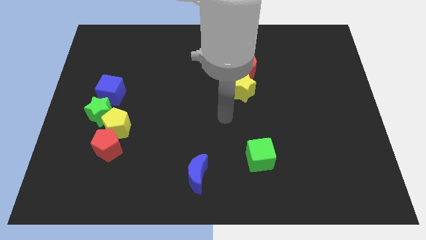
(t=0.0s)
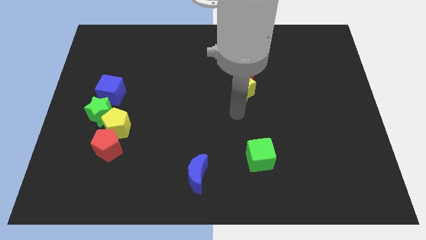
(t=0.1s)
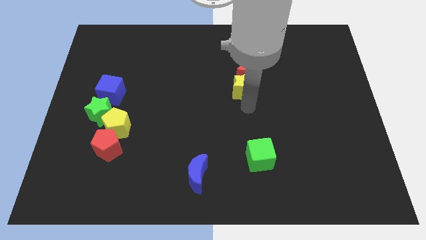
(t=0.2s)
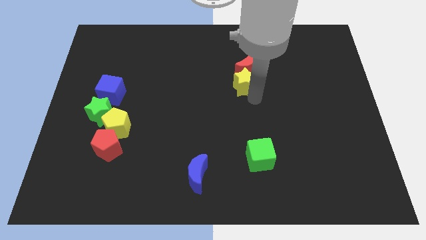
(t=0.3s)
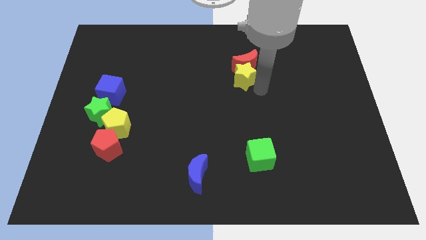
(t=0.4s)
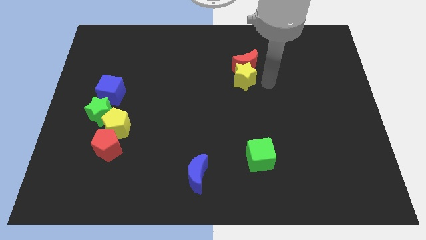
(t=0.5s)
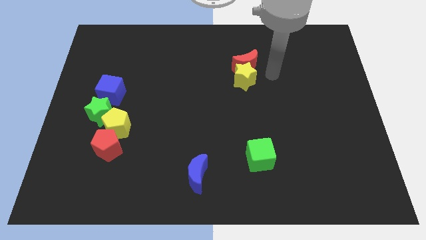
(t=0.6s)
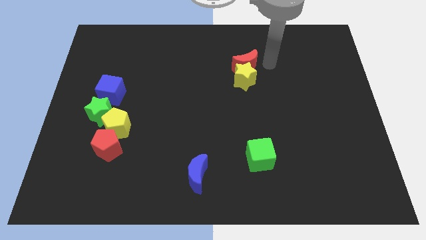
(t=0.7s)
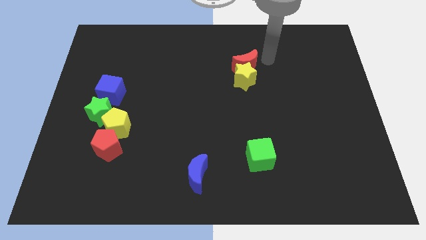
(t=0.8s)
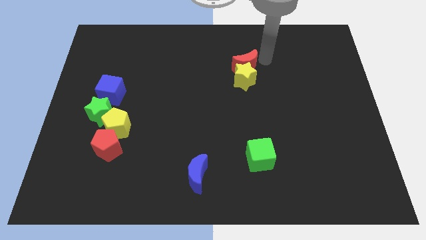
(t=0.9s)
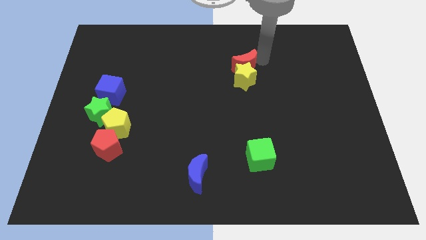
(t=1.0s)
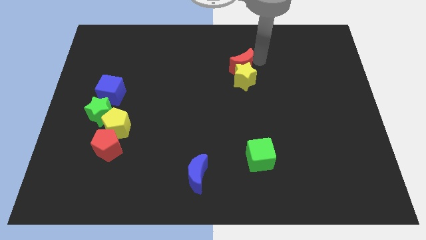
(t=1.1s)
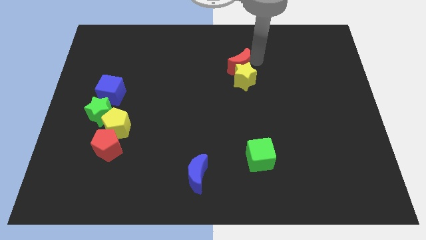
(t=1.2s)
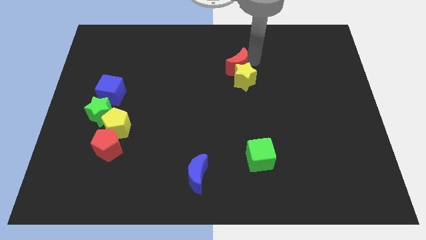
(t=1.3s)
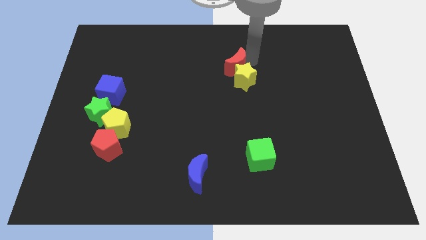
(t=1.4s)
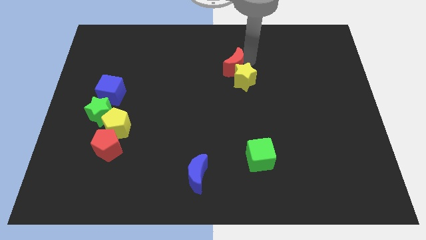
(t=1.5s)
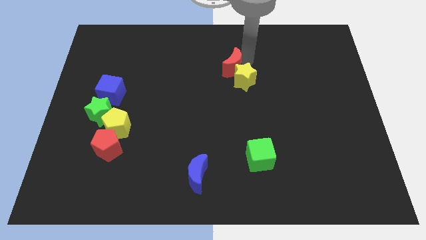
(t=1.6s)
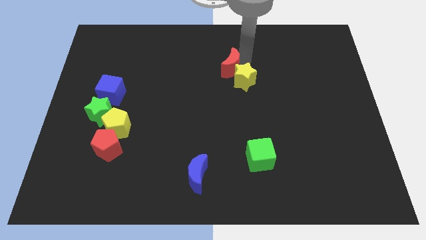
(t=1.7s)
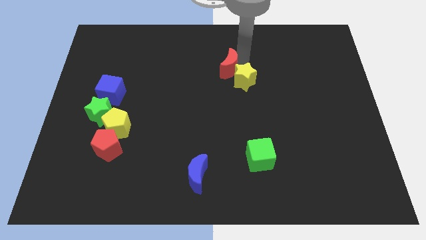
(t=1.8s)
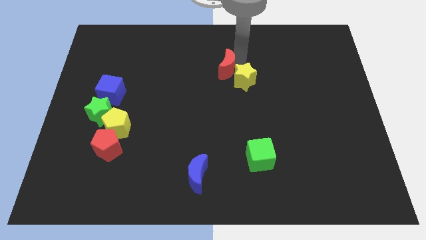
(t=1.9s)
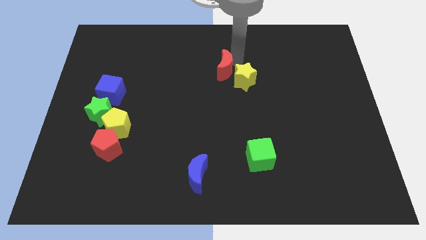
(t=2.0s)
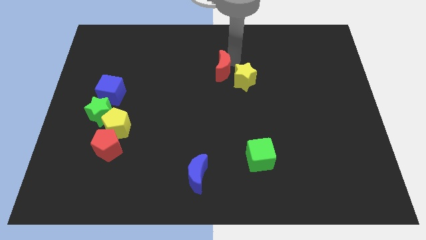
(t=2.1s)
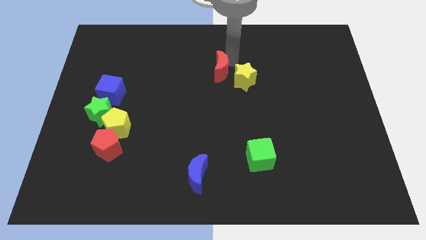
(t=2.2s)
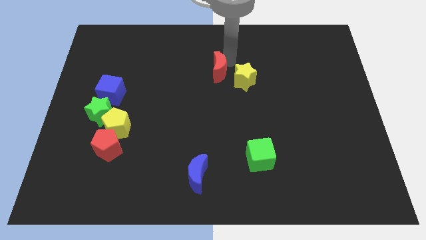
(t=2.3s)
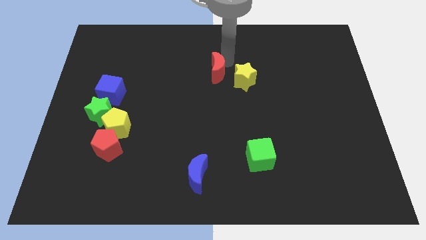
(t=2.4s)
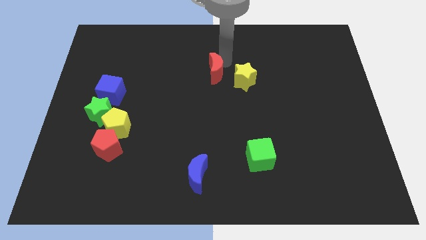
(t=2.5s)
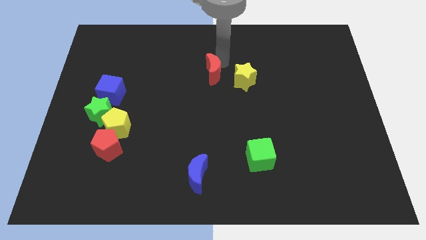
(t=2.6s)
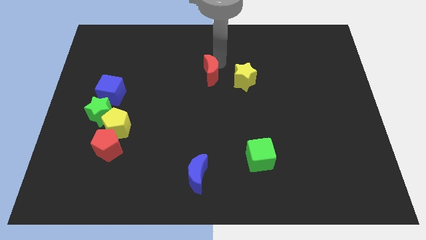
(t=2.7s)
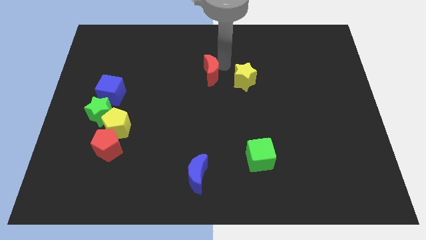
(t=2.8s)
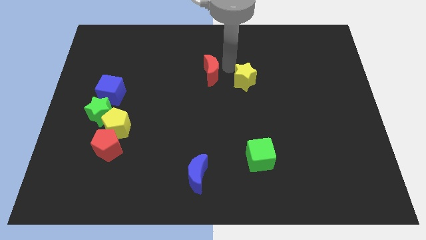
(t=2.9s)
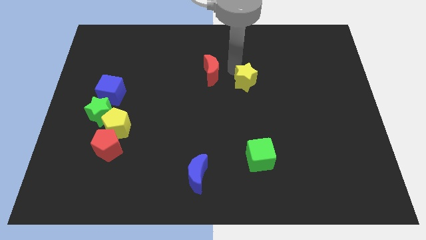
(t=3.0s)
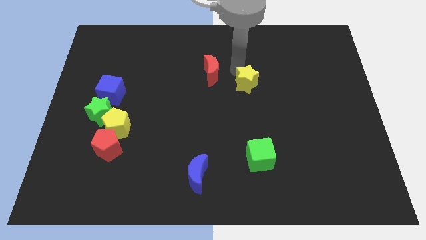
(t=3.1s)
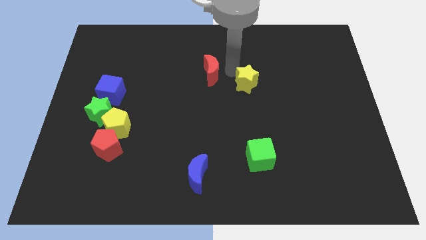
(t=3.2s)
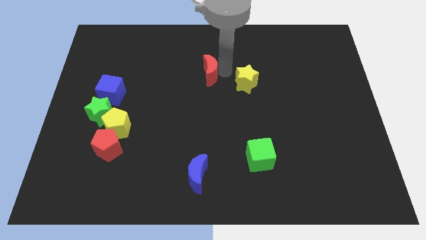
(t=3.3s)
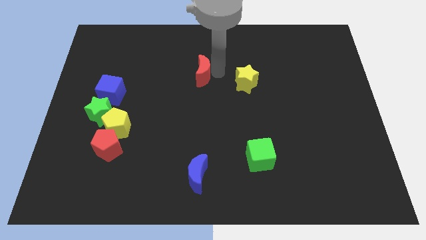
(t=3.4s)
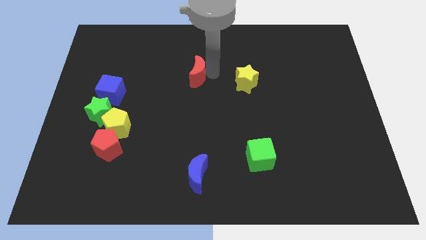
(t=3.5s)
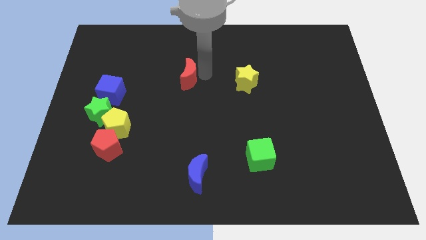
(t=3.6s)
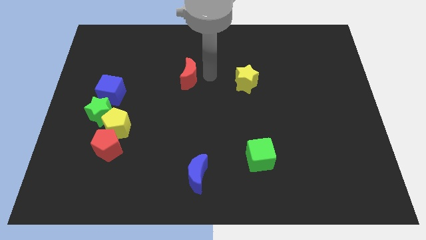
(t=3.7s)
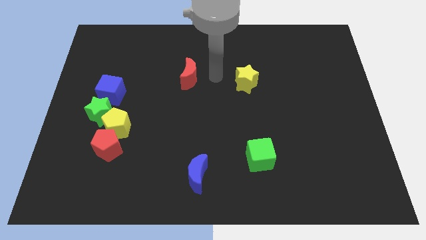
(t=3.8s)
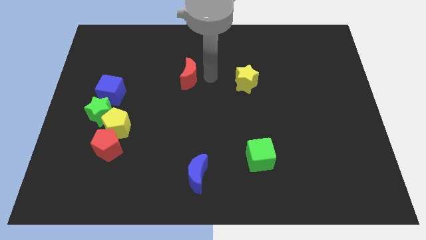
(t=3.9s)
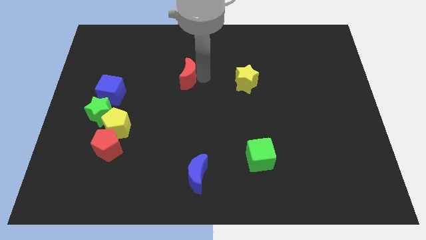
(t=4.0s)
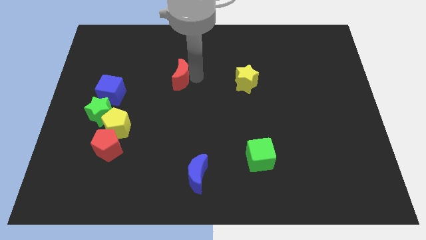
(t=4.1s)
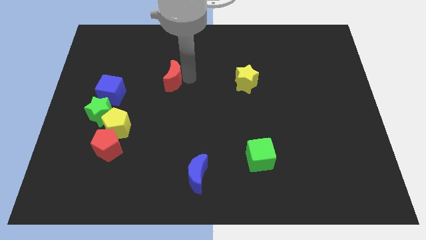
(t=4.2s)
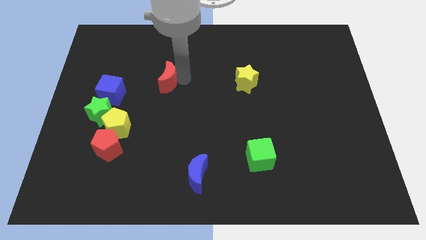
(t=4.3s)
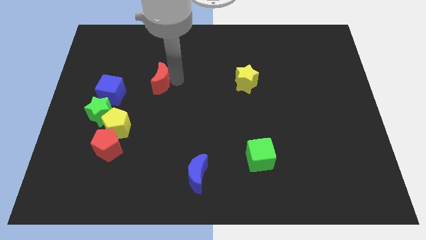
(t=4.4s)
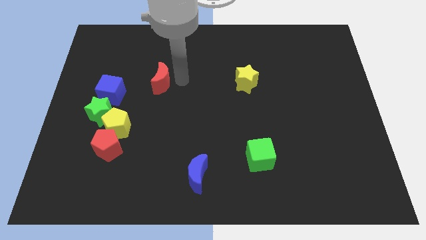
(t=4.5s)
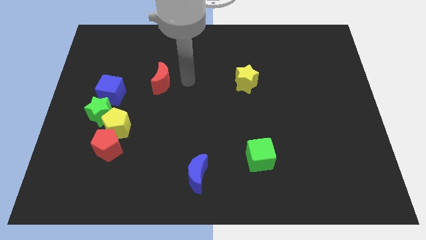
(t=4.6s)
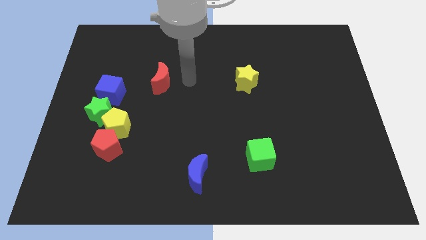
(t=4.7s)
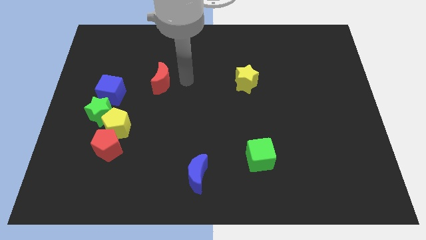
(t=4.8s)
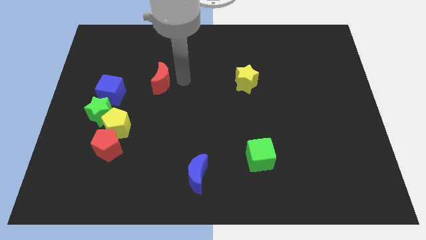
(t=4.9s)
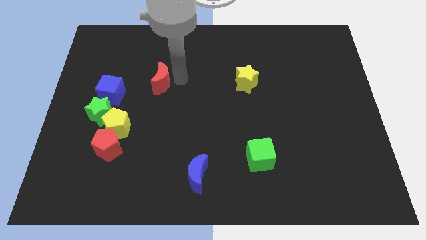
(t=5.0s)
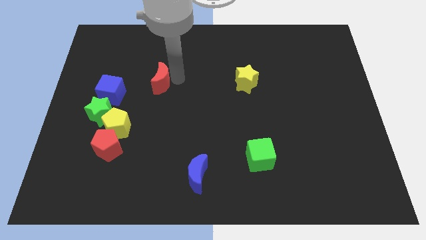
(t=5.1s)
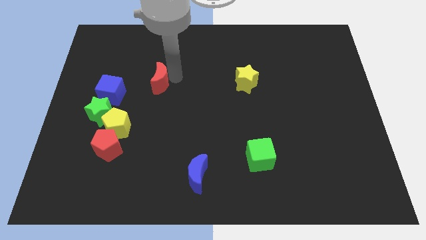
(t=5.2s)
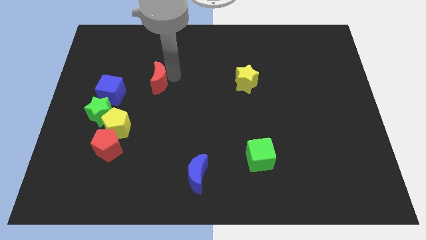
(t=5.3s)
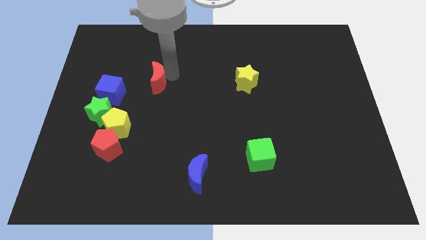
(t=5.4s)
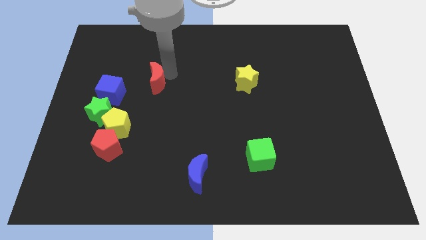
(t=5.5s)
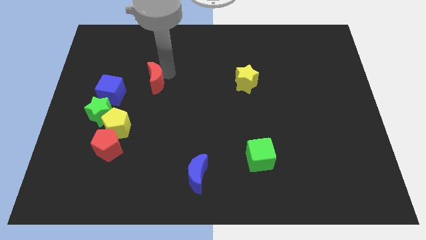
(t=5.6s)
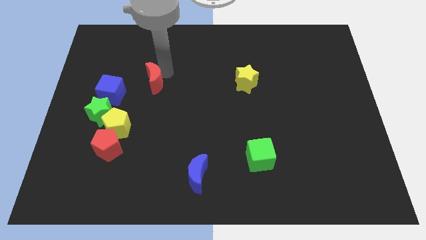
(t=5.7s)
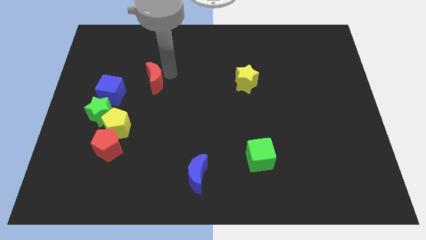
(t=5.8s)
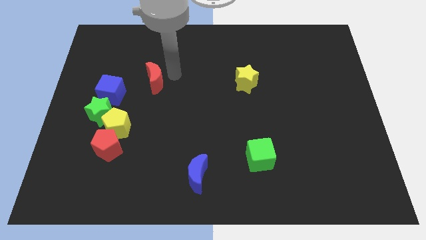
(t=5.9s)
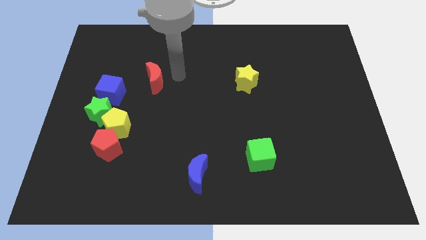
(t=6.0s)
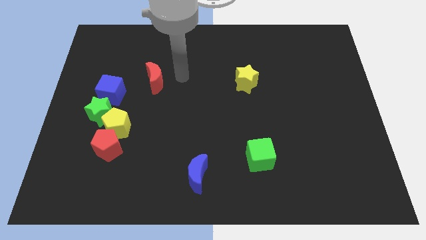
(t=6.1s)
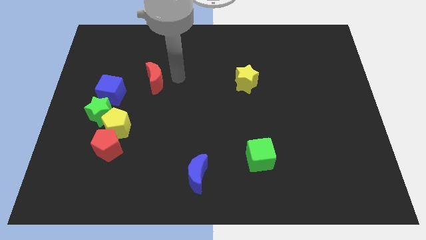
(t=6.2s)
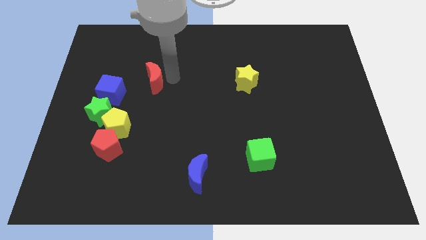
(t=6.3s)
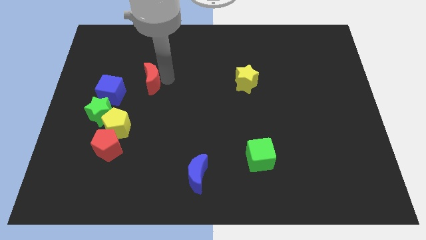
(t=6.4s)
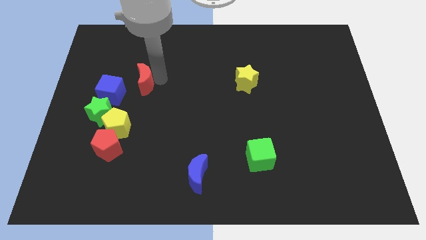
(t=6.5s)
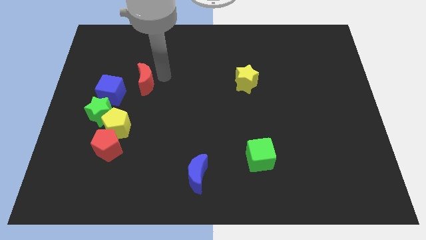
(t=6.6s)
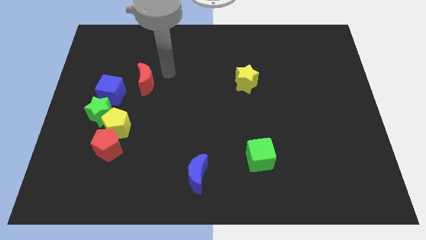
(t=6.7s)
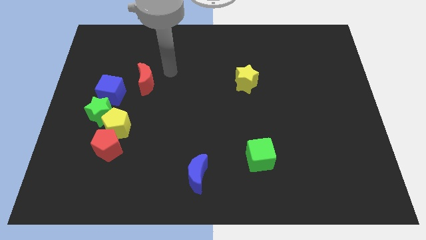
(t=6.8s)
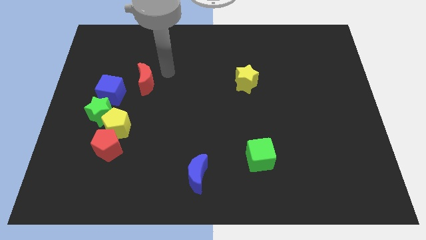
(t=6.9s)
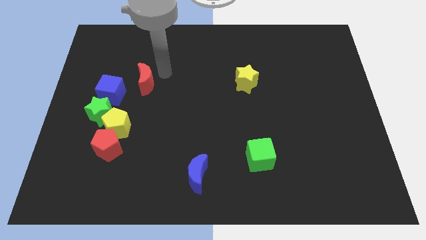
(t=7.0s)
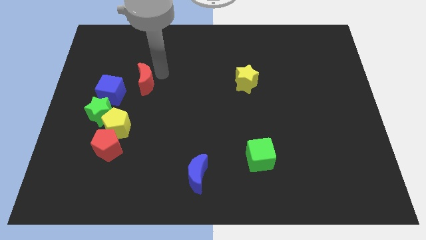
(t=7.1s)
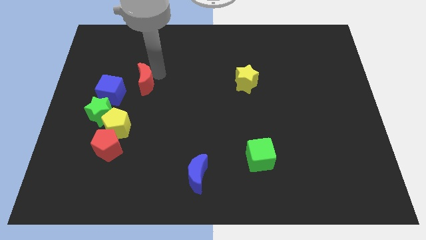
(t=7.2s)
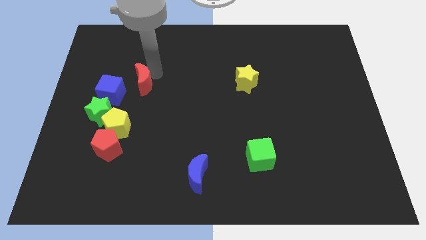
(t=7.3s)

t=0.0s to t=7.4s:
push the red moon above the yellow pentagon

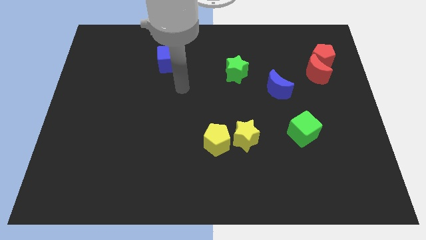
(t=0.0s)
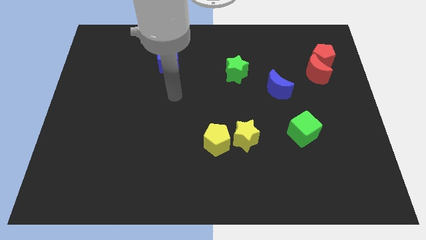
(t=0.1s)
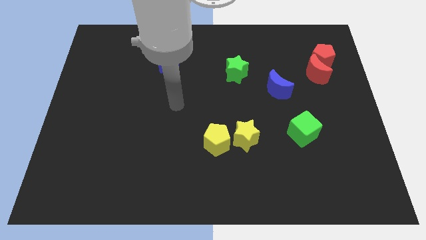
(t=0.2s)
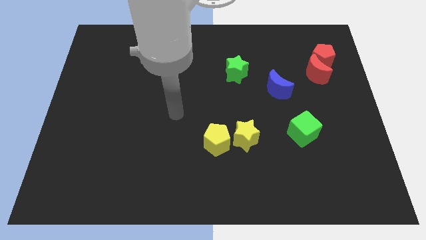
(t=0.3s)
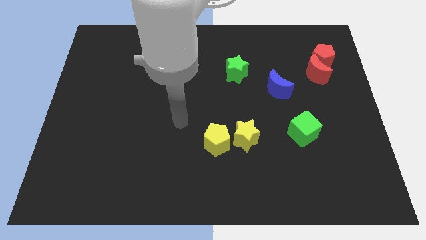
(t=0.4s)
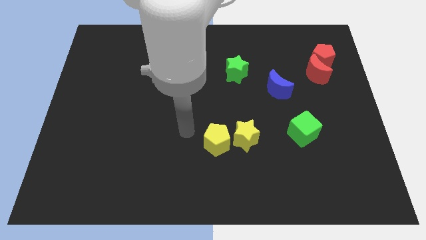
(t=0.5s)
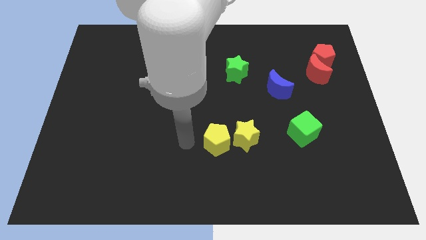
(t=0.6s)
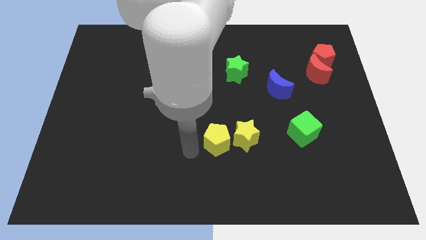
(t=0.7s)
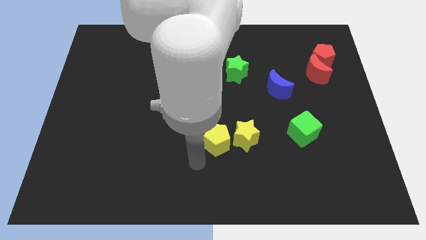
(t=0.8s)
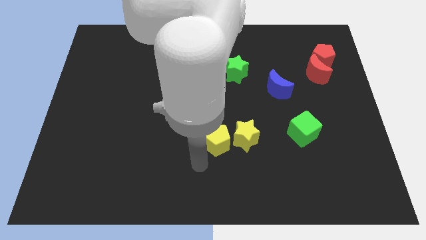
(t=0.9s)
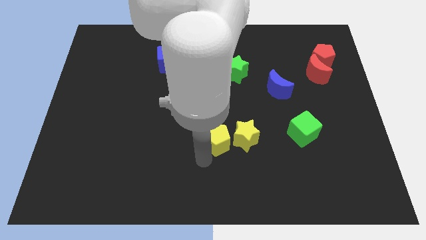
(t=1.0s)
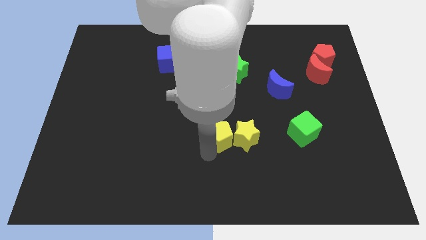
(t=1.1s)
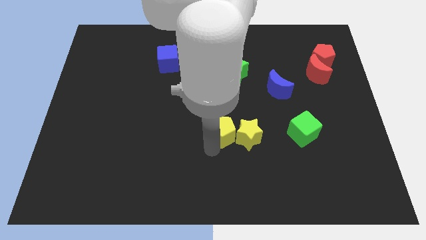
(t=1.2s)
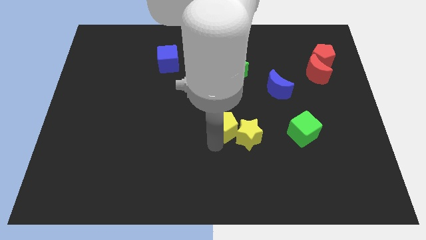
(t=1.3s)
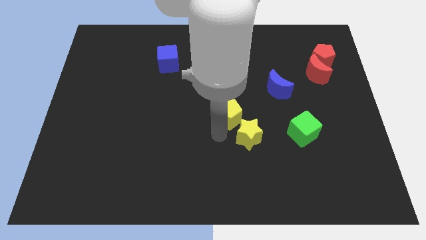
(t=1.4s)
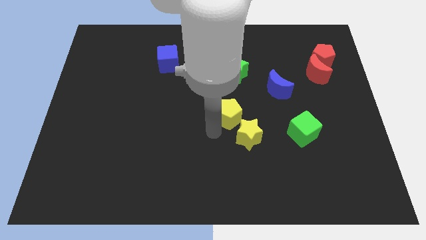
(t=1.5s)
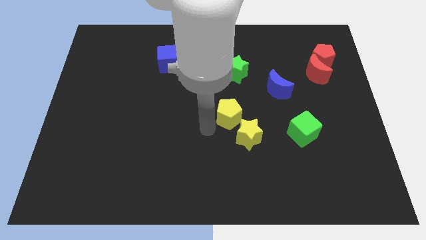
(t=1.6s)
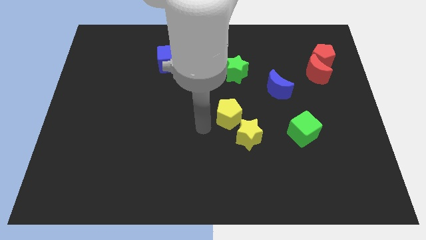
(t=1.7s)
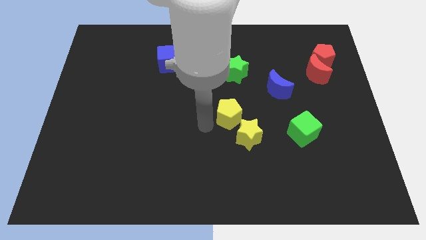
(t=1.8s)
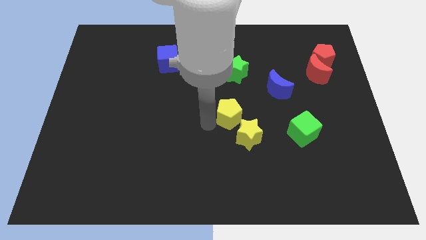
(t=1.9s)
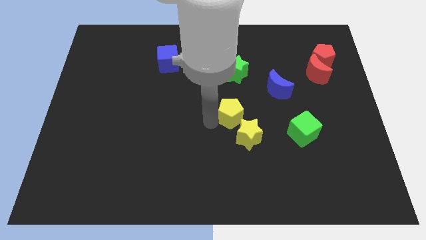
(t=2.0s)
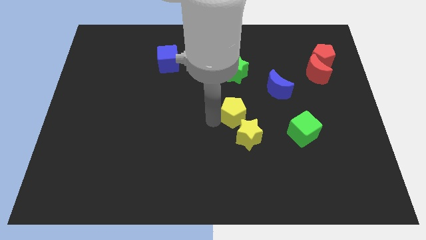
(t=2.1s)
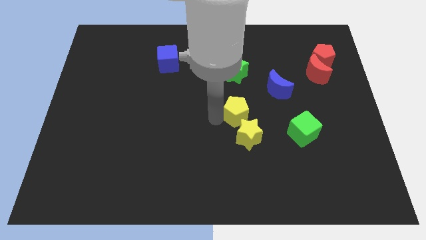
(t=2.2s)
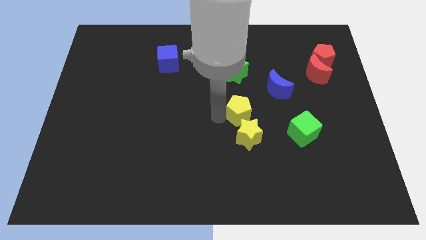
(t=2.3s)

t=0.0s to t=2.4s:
push the yellow pentagon to the bottom left side of the blue moon
